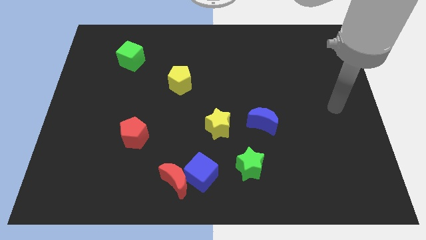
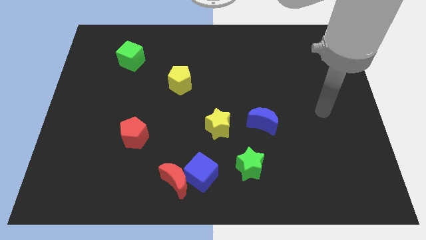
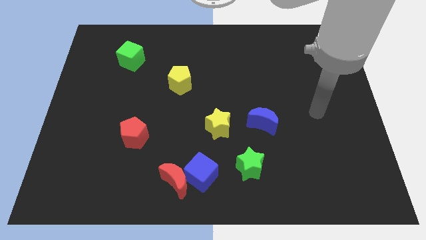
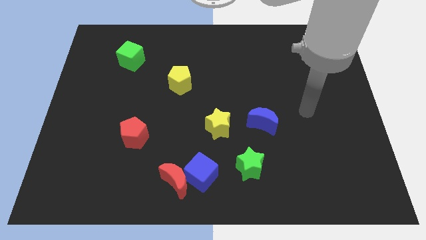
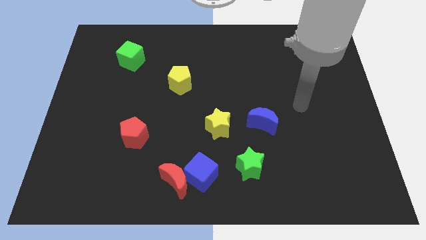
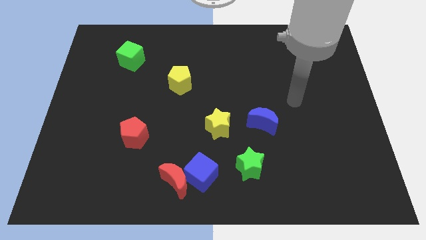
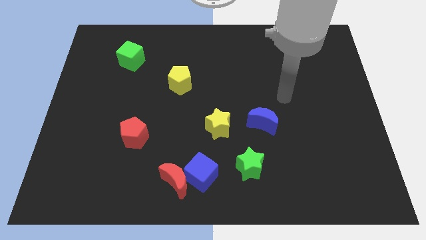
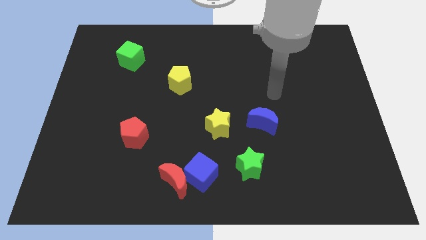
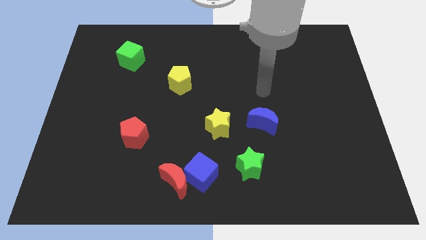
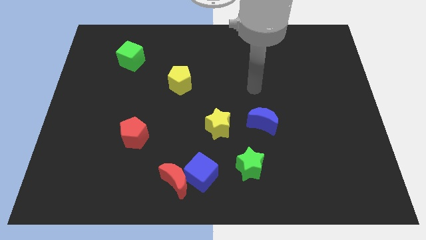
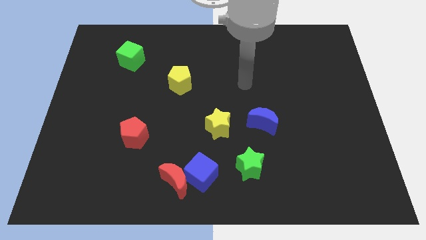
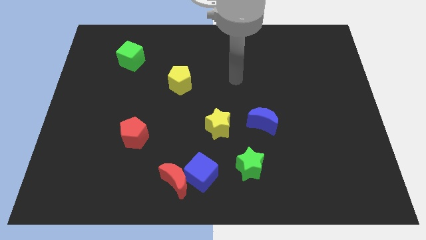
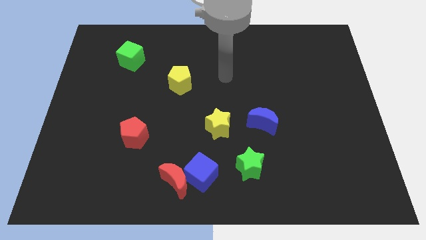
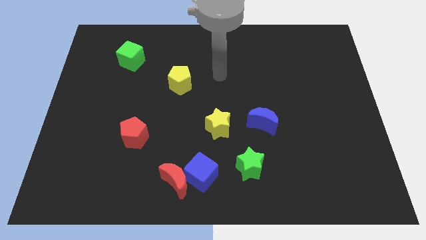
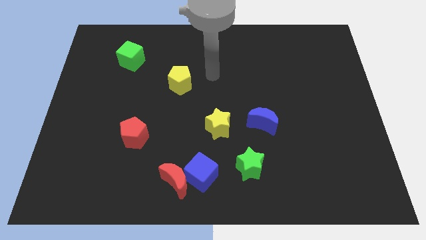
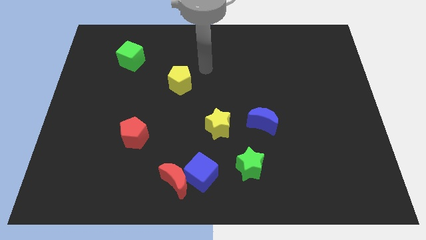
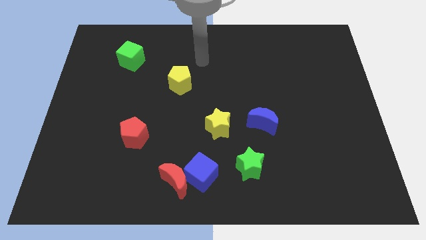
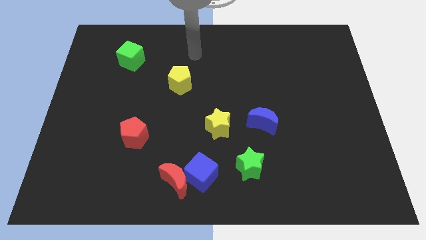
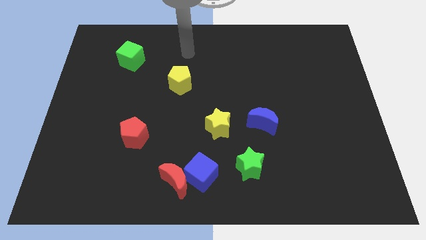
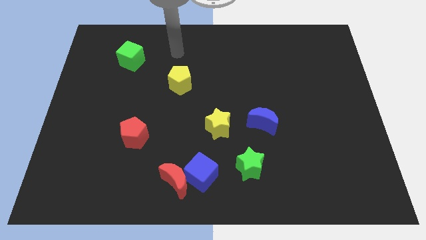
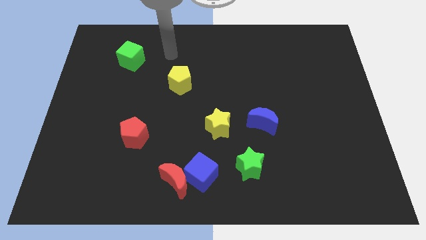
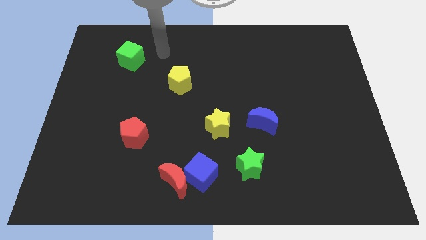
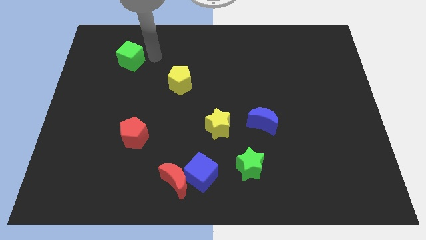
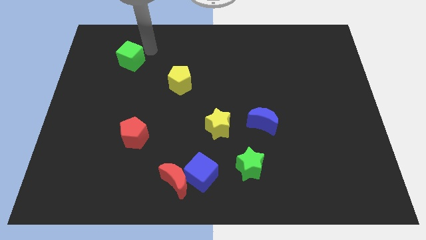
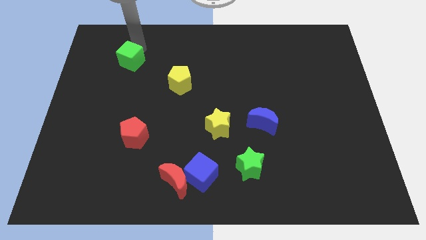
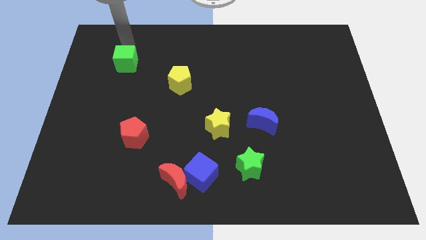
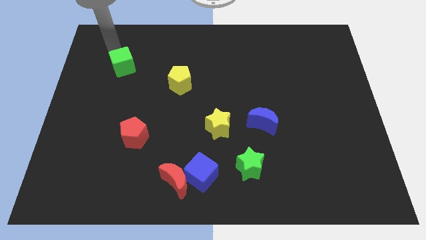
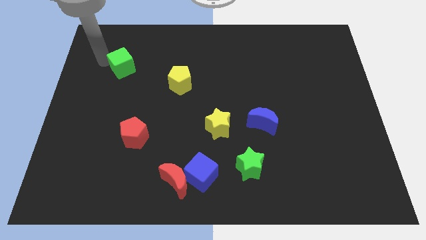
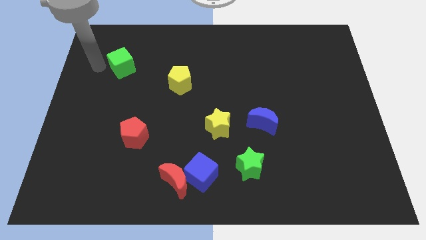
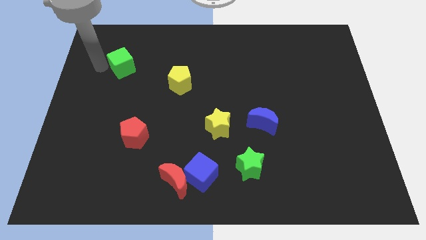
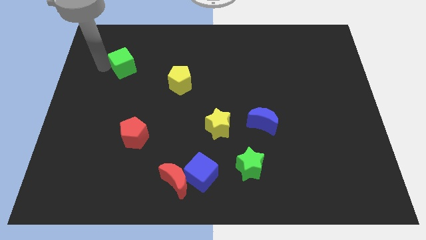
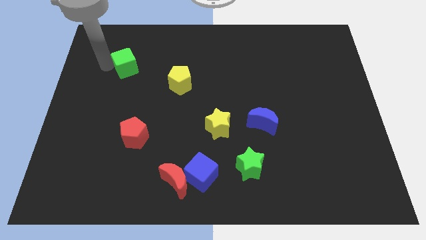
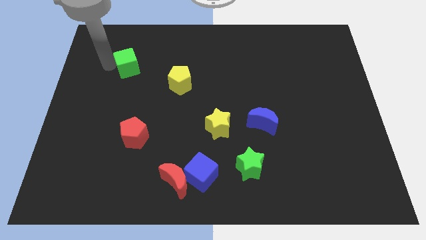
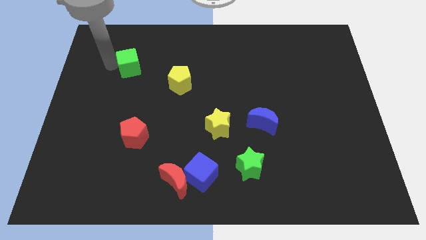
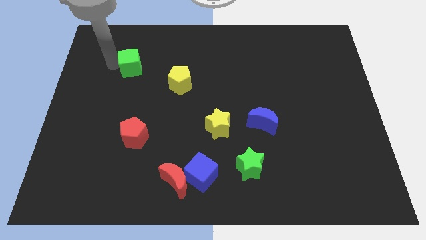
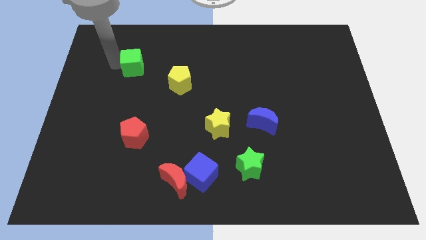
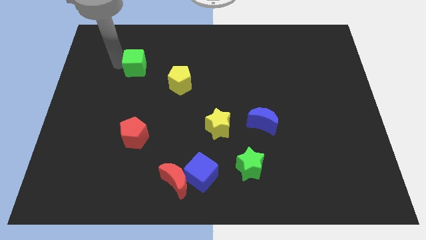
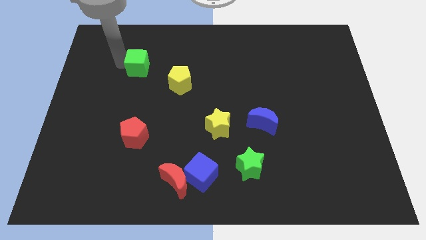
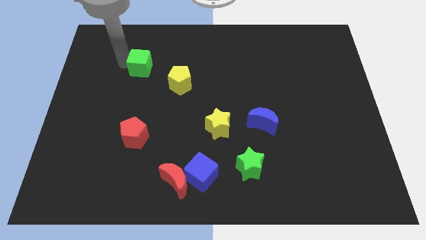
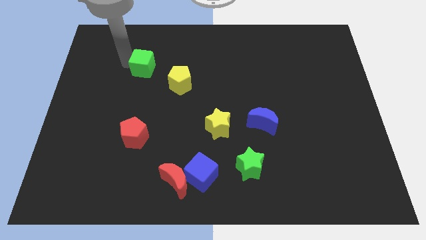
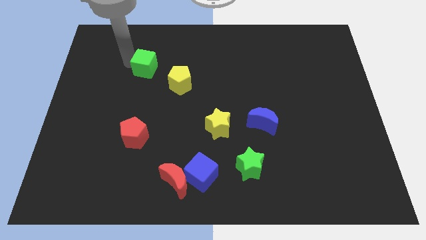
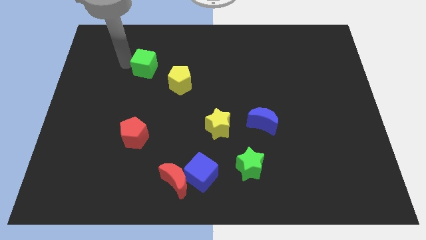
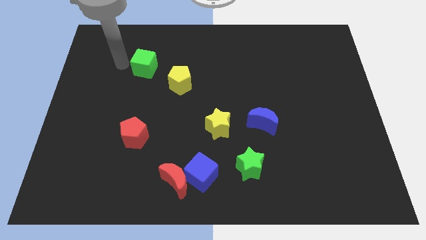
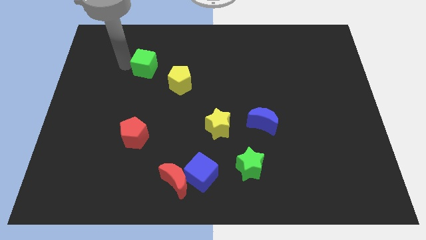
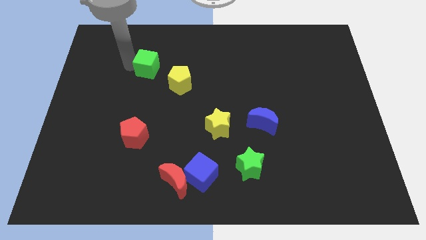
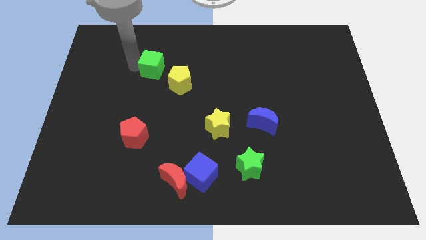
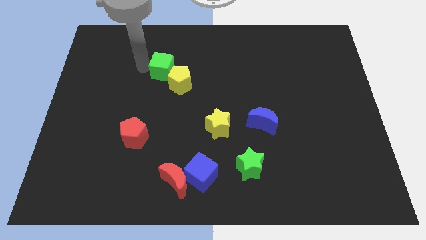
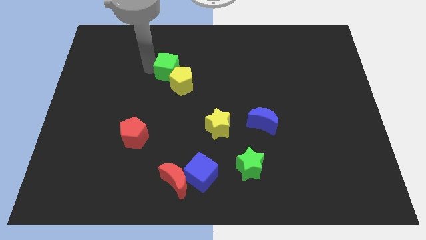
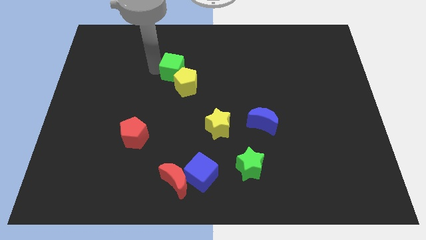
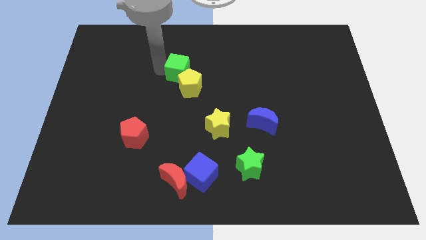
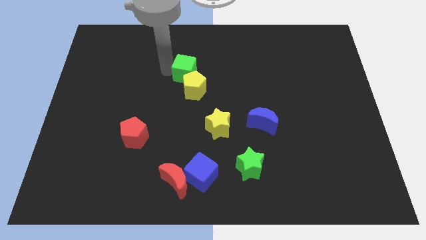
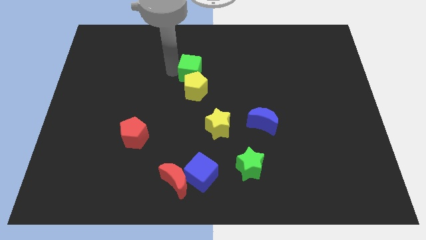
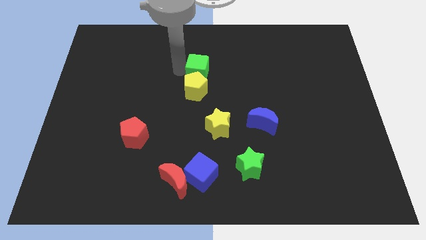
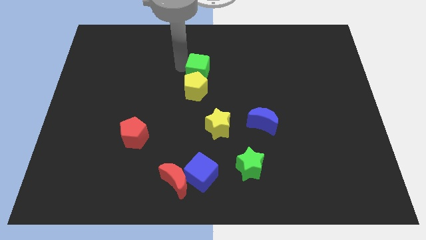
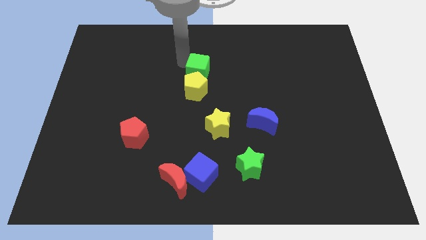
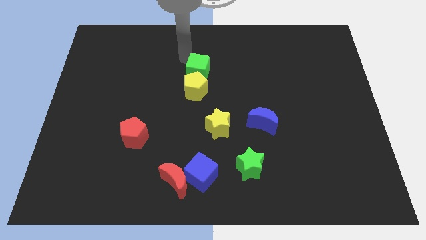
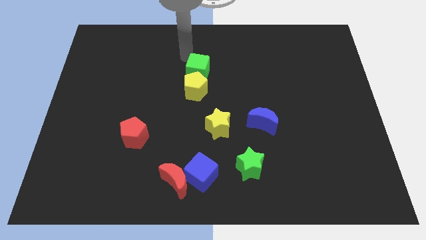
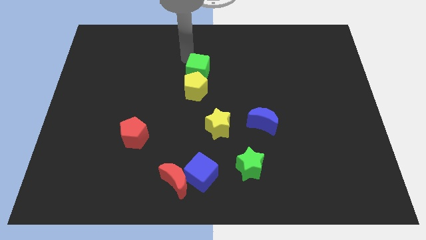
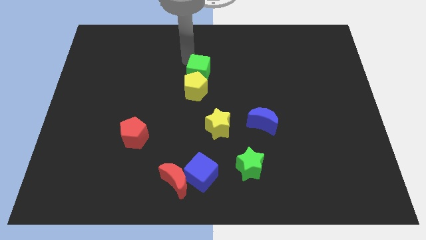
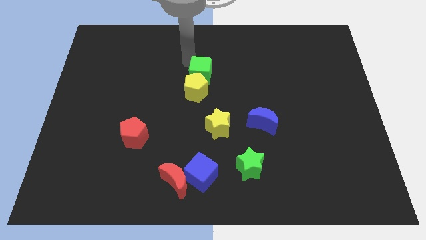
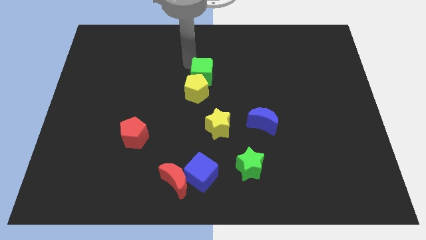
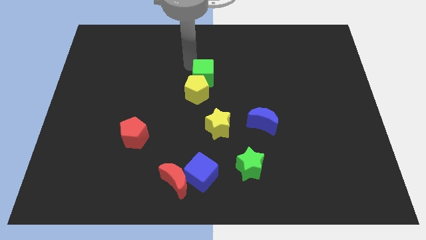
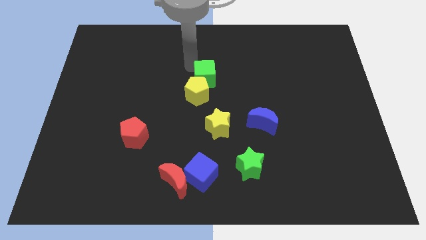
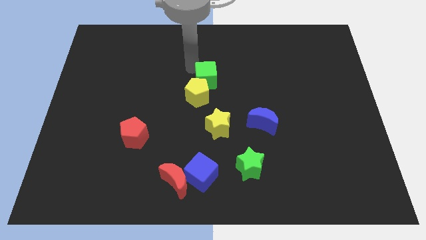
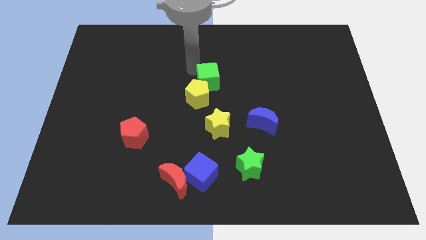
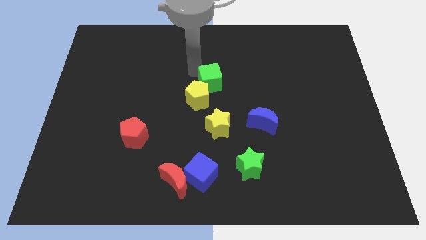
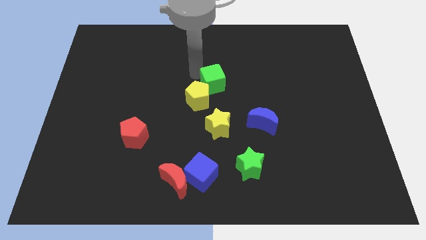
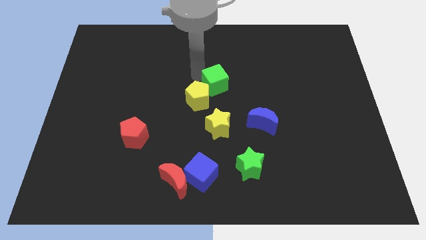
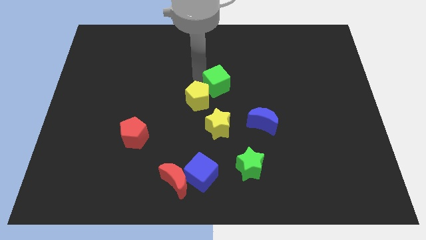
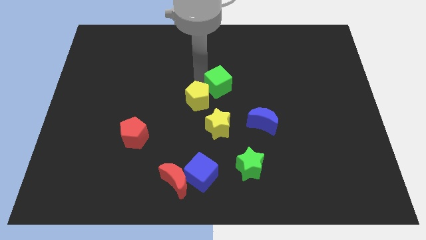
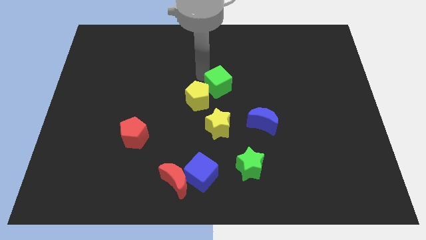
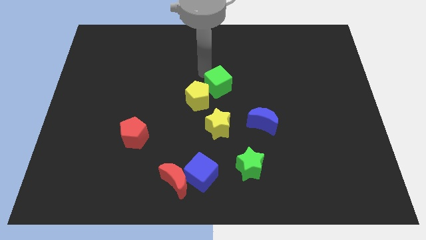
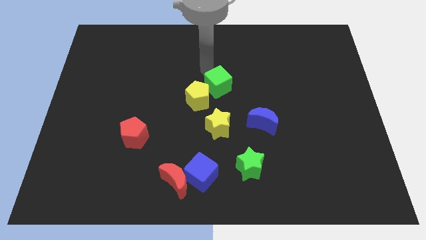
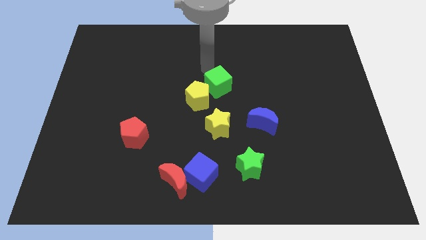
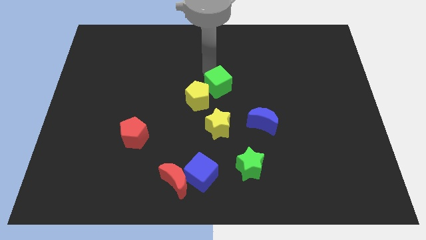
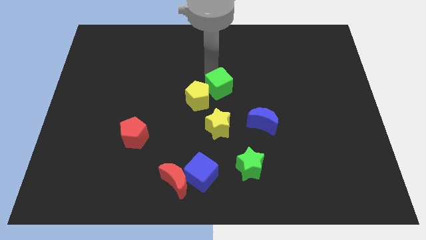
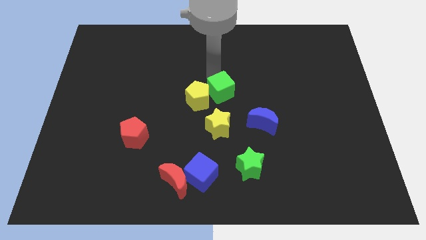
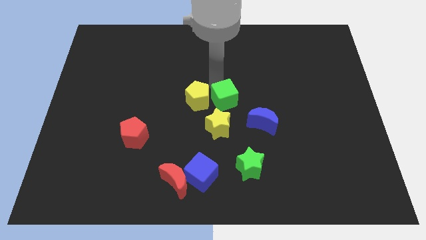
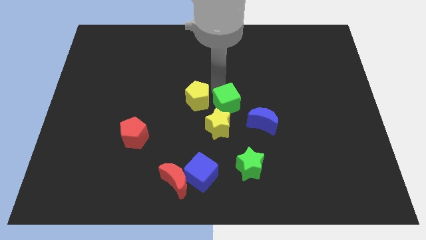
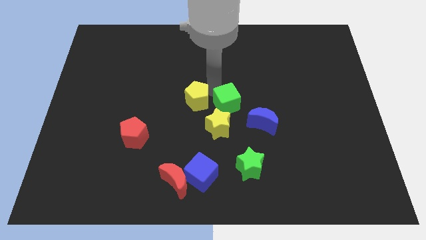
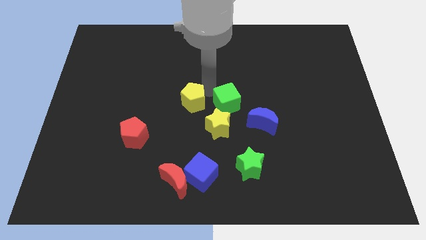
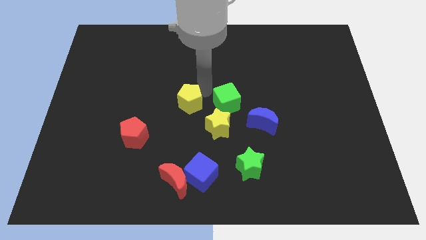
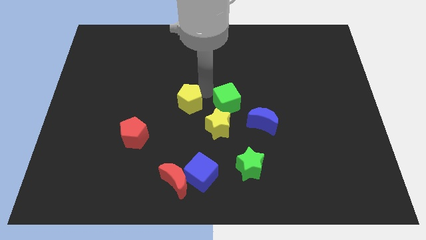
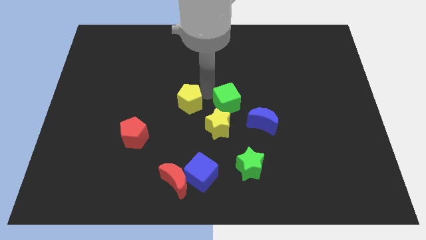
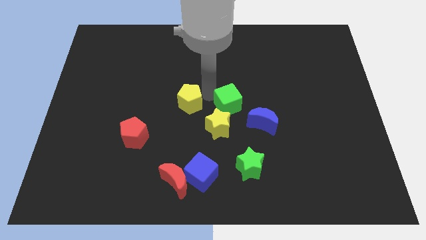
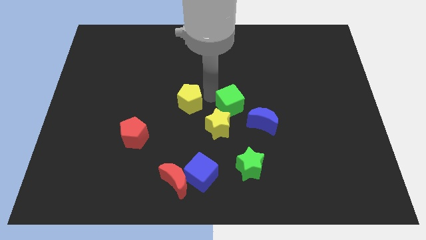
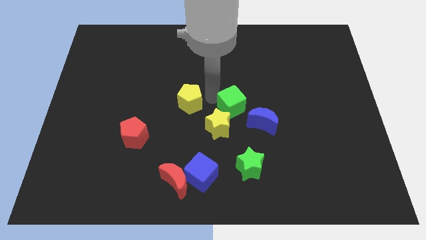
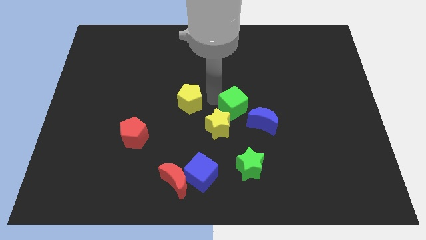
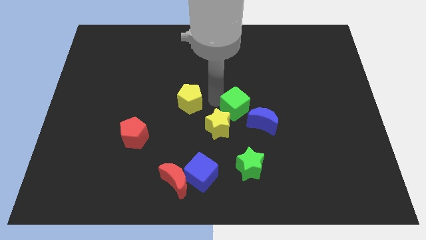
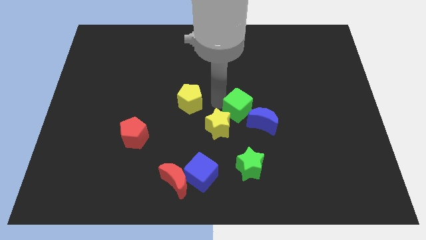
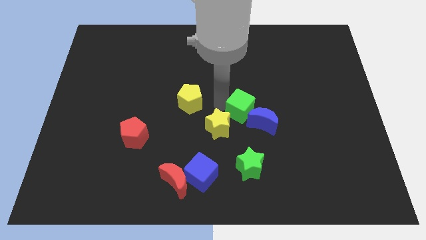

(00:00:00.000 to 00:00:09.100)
push the green cube to the blue moon
